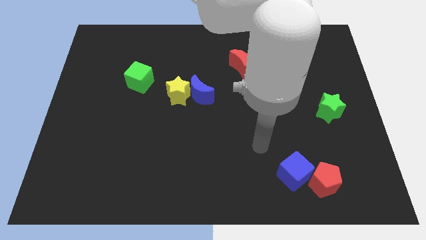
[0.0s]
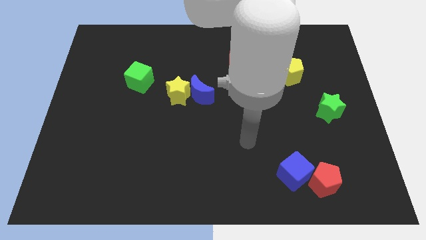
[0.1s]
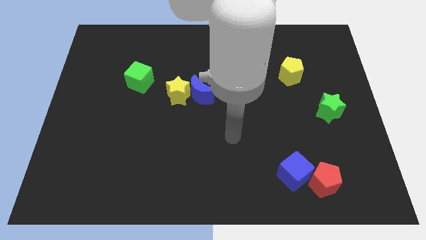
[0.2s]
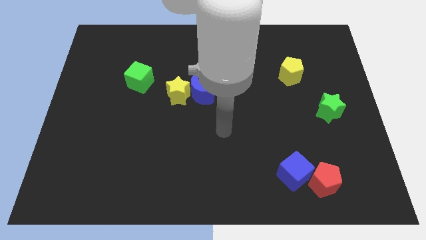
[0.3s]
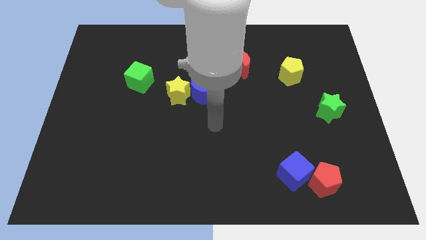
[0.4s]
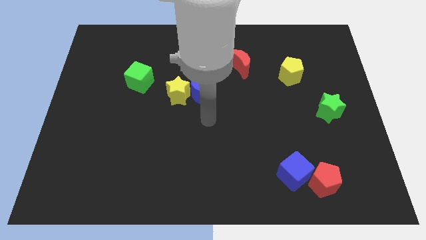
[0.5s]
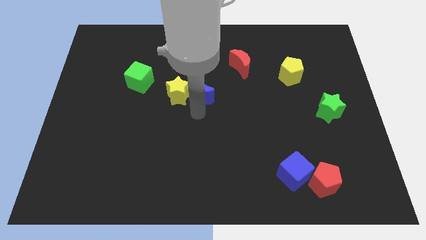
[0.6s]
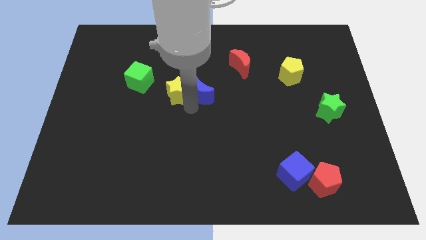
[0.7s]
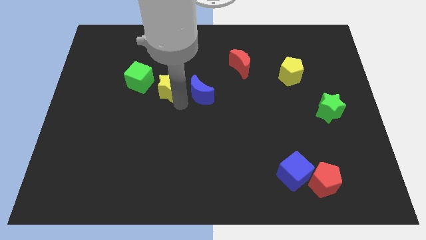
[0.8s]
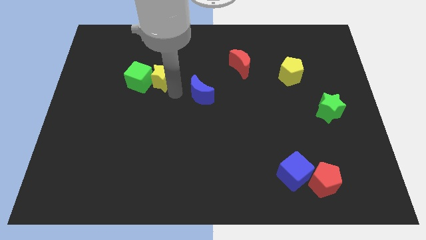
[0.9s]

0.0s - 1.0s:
separate the blue moon from the yellow star

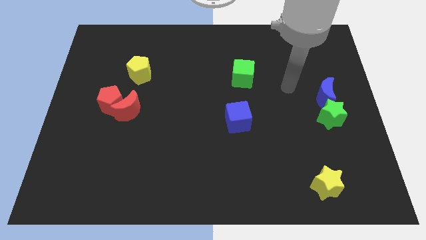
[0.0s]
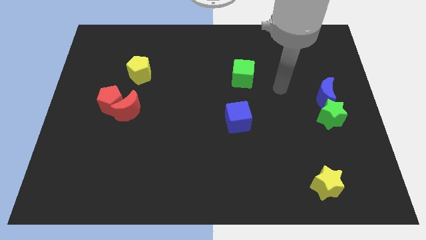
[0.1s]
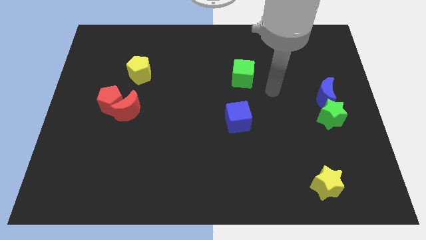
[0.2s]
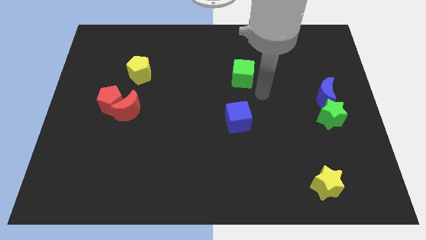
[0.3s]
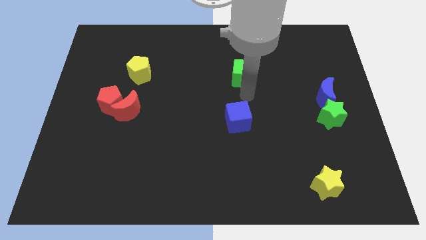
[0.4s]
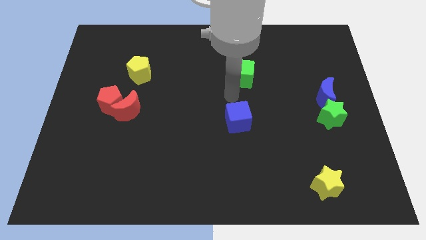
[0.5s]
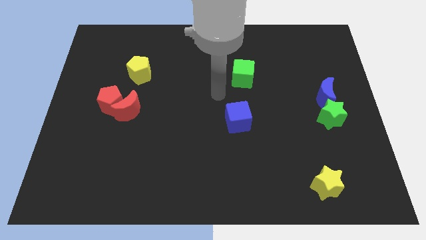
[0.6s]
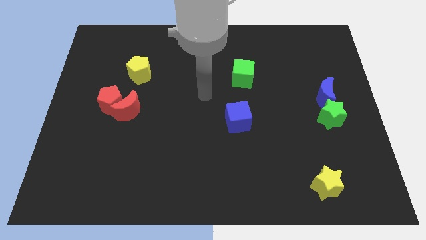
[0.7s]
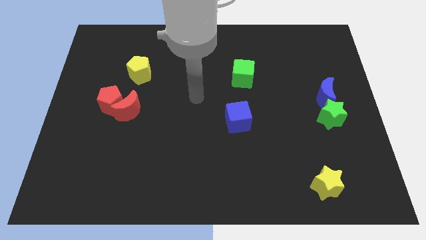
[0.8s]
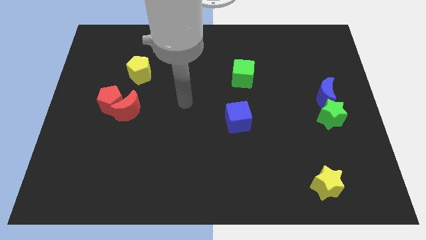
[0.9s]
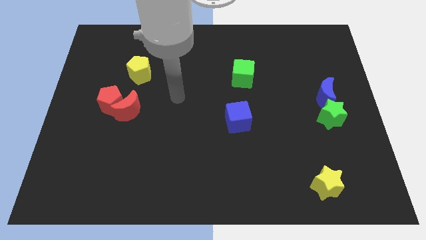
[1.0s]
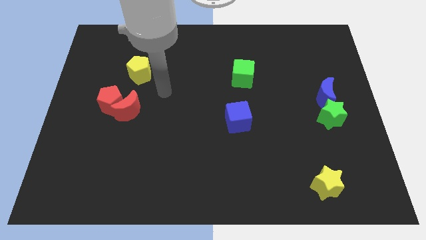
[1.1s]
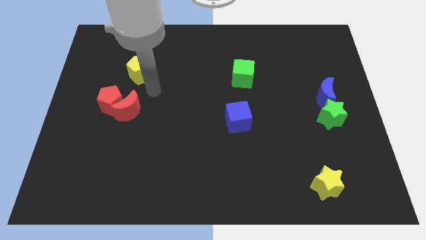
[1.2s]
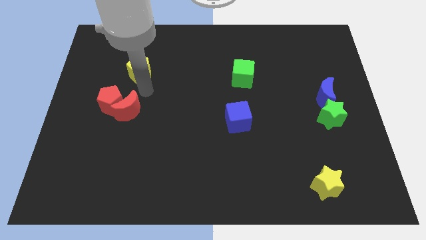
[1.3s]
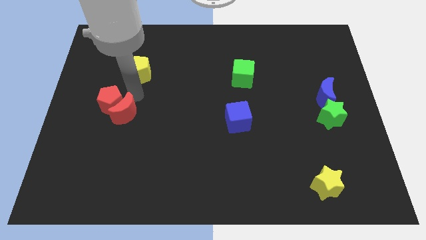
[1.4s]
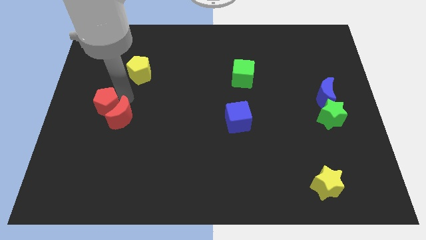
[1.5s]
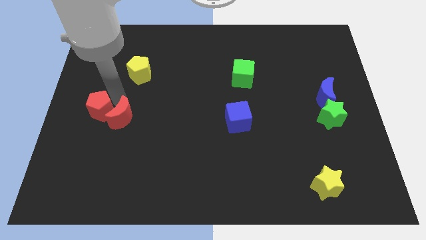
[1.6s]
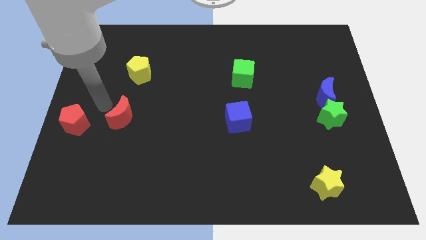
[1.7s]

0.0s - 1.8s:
move the red moon away from the red pentagon

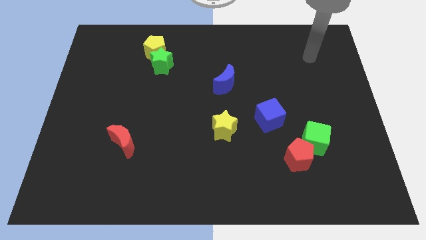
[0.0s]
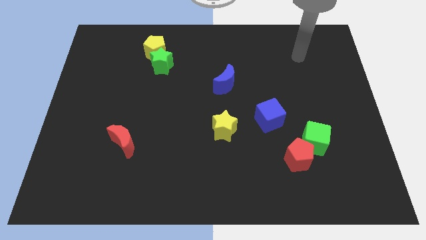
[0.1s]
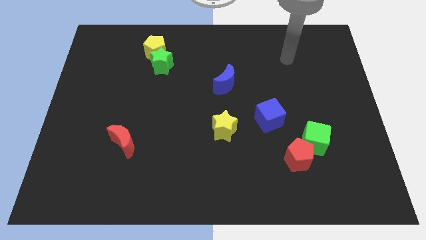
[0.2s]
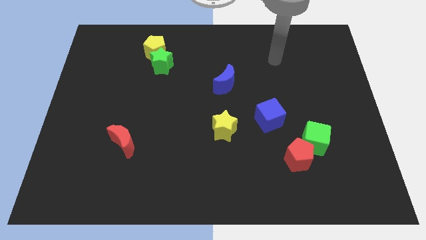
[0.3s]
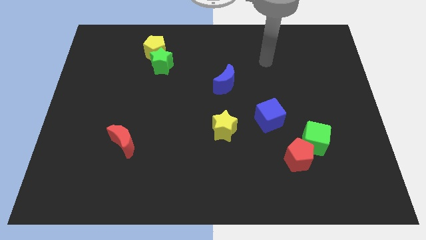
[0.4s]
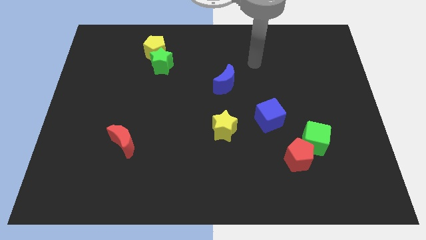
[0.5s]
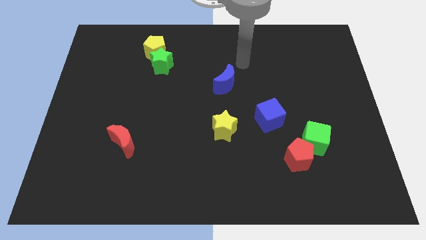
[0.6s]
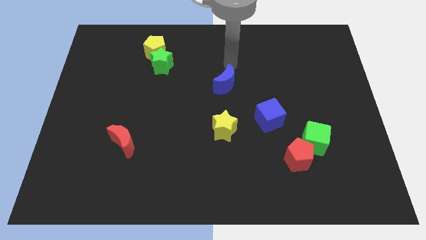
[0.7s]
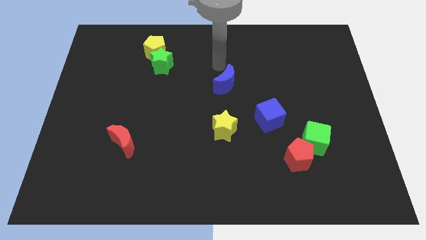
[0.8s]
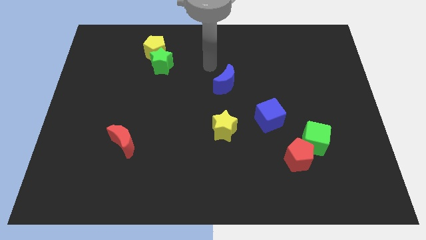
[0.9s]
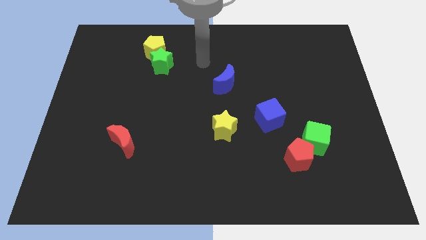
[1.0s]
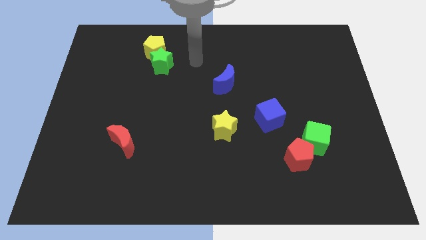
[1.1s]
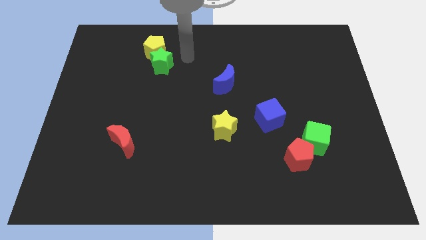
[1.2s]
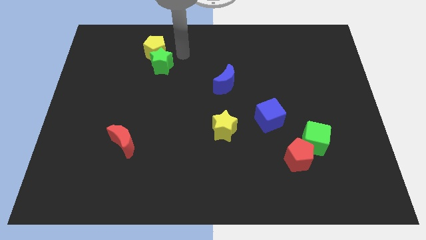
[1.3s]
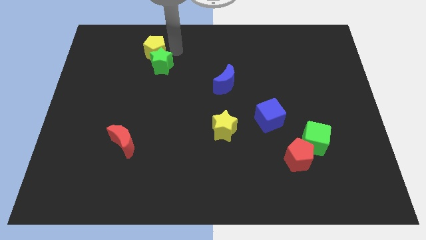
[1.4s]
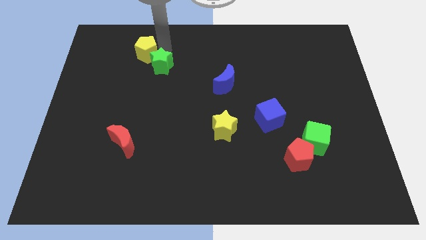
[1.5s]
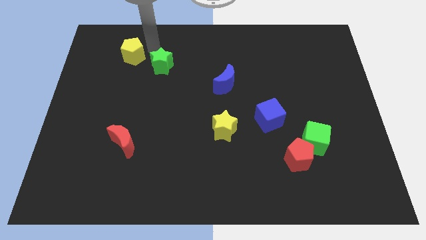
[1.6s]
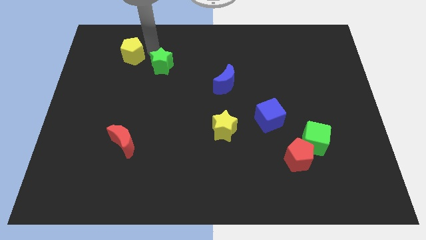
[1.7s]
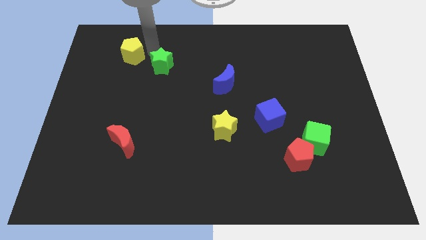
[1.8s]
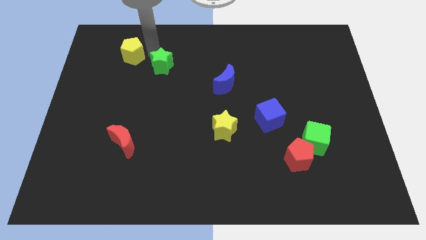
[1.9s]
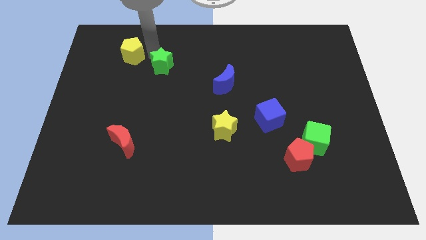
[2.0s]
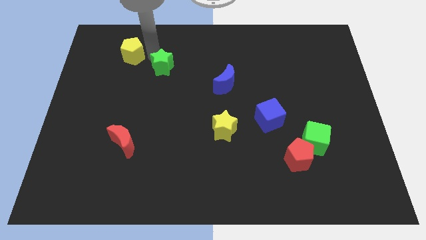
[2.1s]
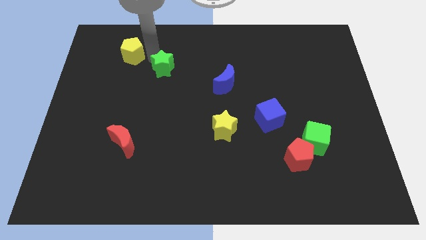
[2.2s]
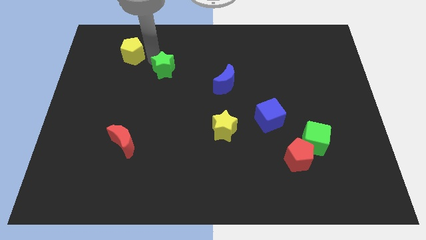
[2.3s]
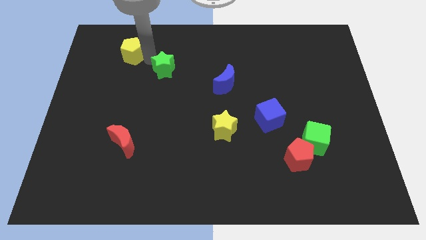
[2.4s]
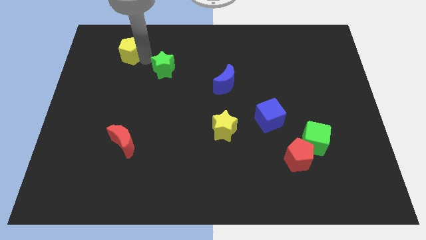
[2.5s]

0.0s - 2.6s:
pull the green star apart from the yellow pentagon

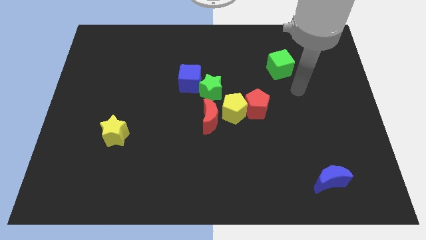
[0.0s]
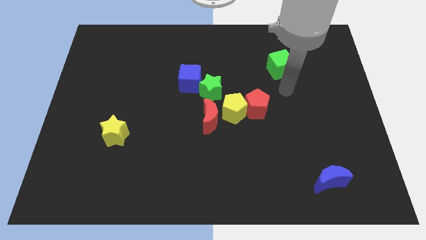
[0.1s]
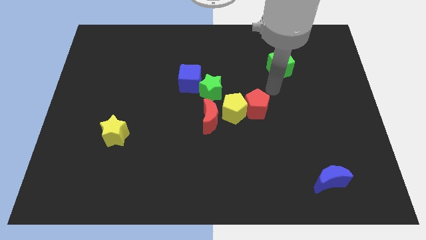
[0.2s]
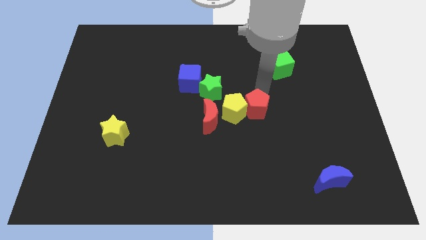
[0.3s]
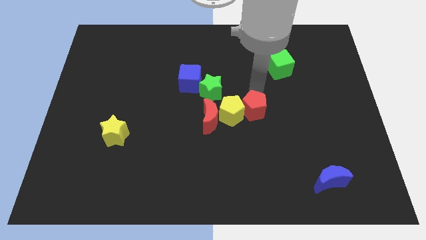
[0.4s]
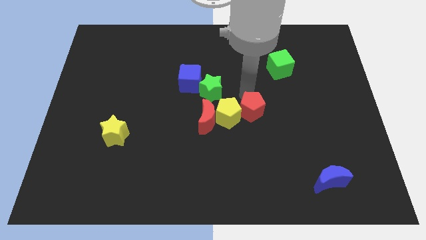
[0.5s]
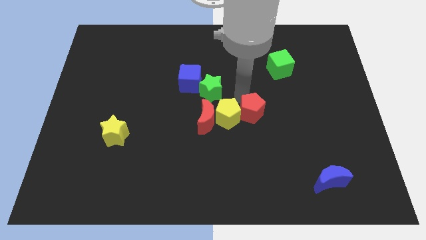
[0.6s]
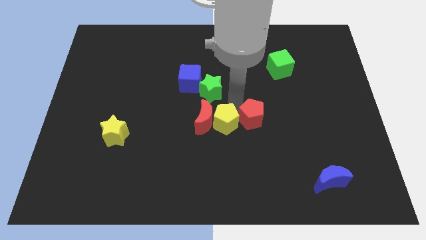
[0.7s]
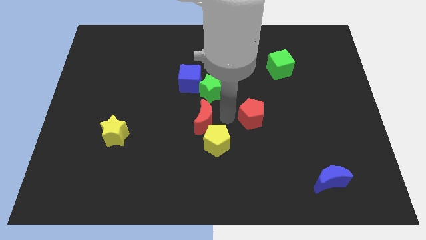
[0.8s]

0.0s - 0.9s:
move the red pentagon away from the yellow pentagon

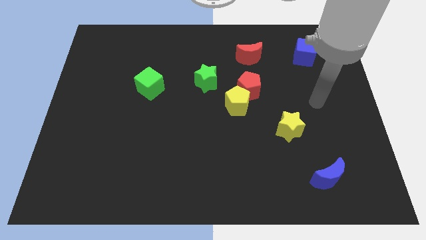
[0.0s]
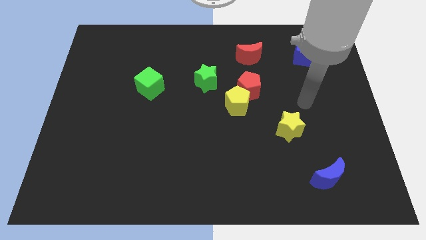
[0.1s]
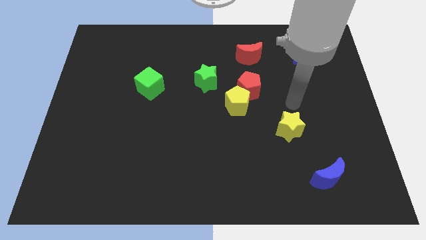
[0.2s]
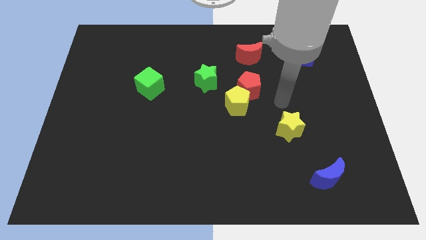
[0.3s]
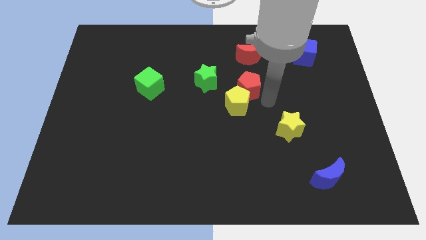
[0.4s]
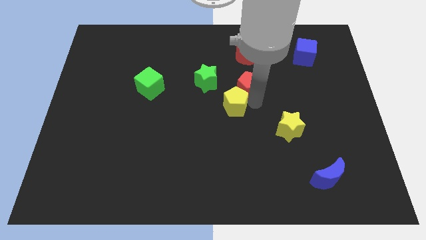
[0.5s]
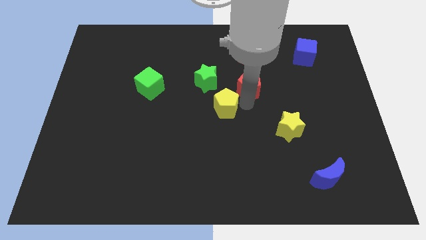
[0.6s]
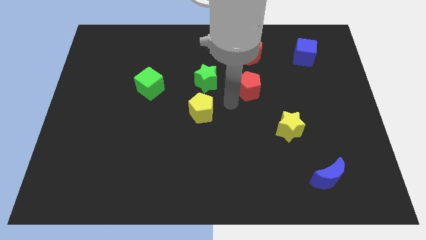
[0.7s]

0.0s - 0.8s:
pull the red pentagon apart from the yellow pentagon

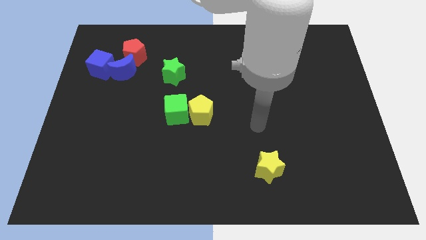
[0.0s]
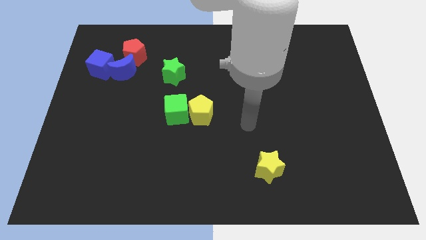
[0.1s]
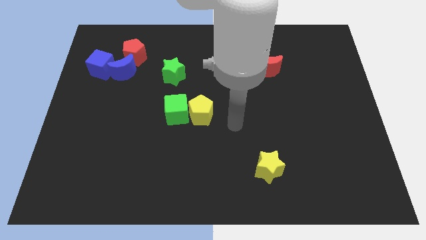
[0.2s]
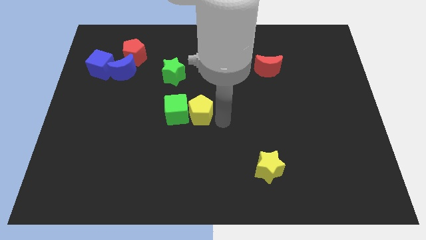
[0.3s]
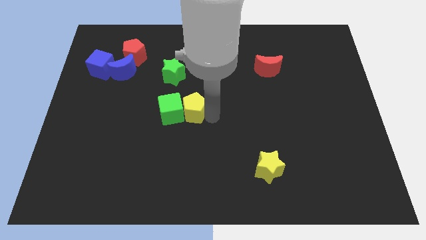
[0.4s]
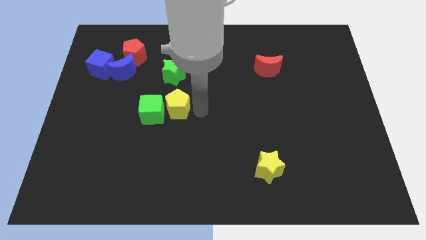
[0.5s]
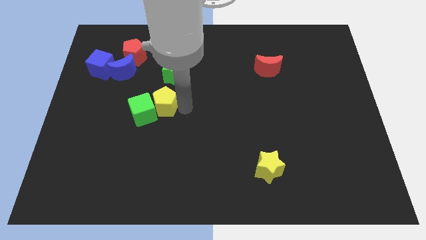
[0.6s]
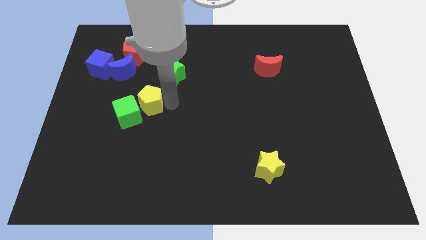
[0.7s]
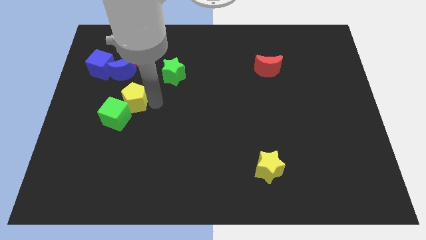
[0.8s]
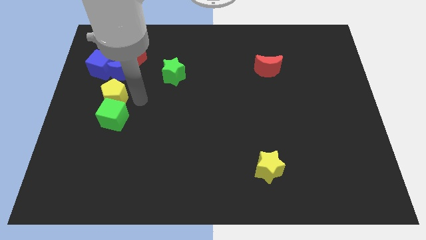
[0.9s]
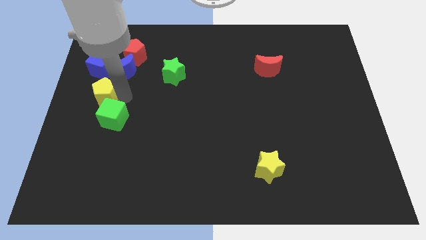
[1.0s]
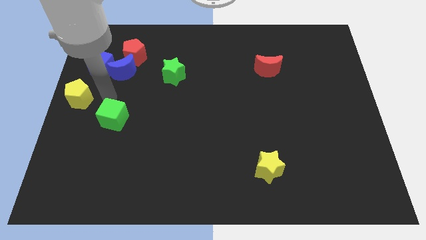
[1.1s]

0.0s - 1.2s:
pull the green cube apart from the yellow pentagon

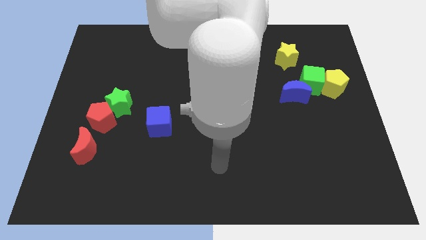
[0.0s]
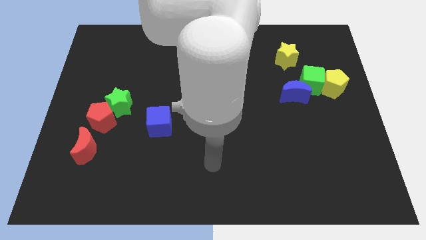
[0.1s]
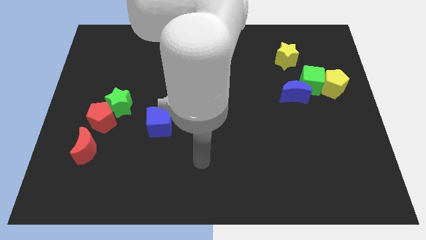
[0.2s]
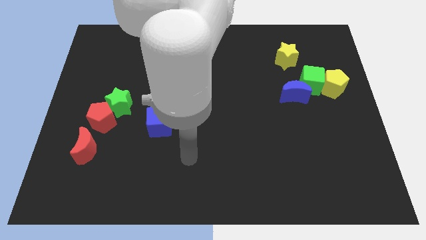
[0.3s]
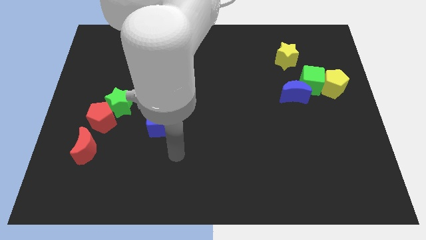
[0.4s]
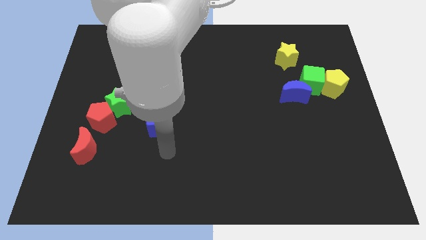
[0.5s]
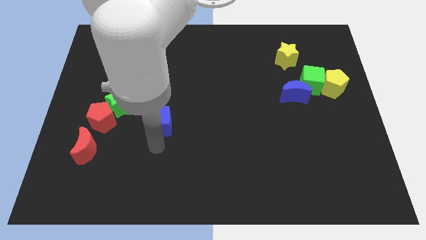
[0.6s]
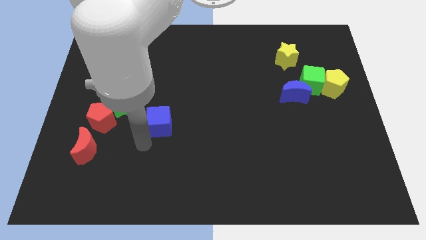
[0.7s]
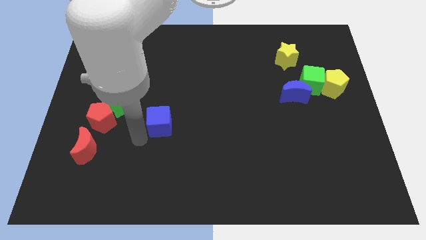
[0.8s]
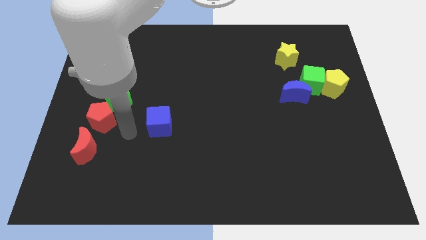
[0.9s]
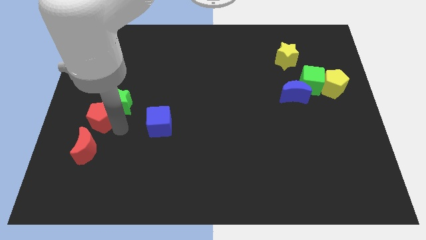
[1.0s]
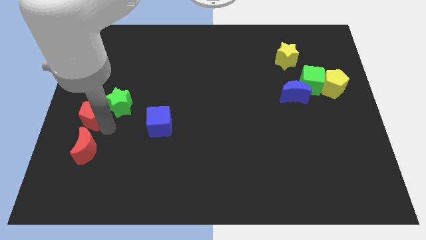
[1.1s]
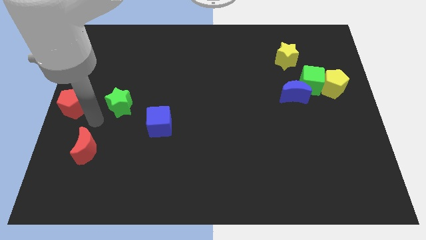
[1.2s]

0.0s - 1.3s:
move the green star away from the red pentagon
